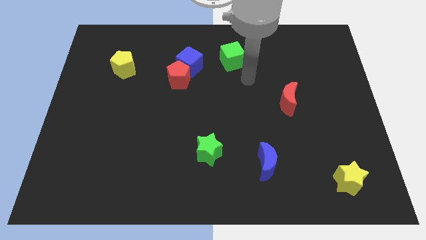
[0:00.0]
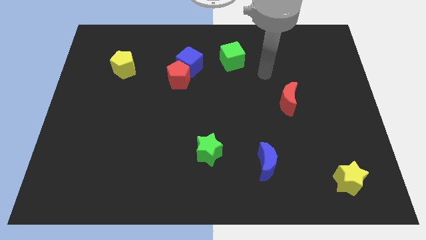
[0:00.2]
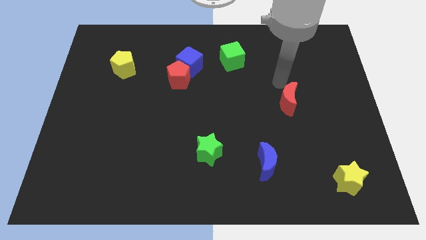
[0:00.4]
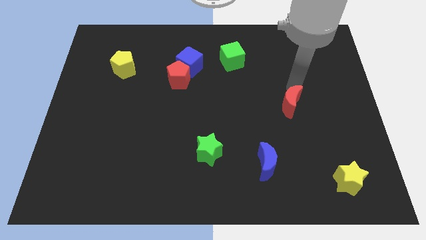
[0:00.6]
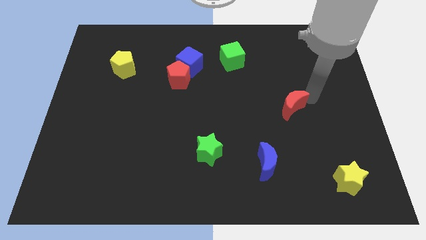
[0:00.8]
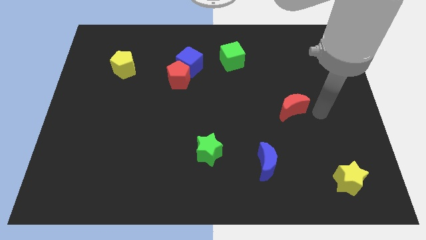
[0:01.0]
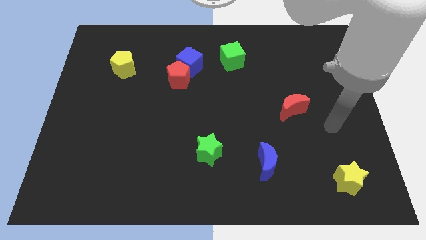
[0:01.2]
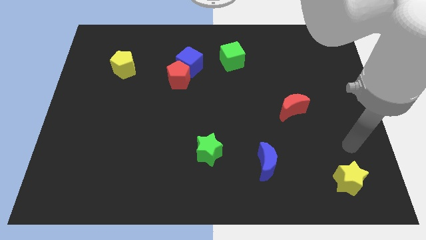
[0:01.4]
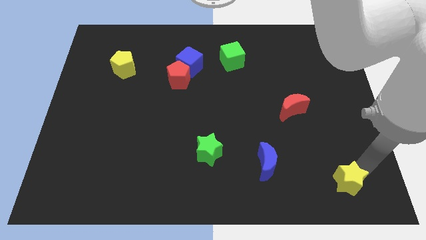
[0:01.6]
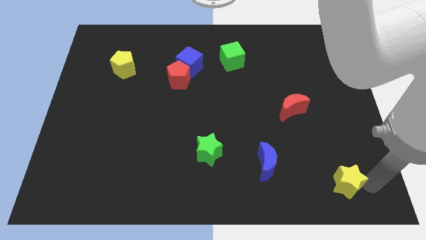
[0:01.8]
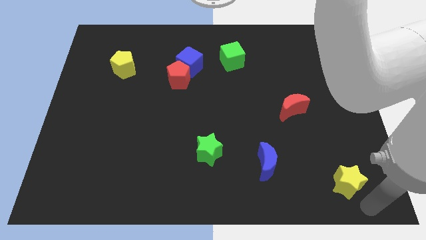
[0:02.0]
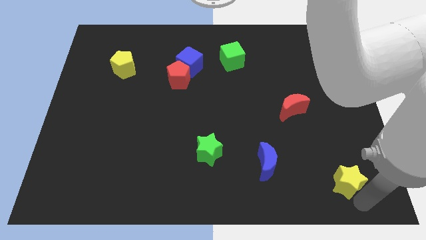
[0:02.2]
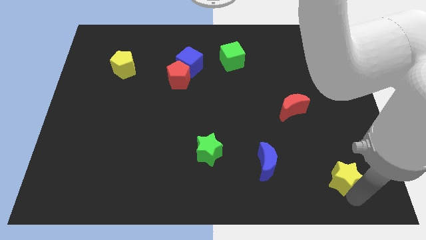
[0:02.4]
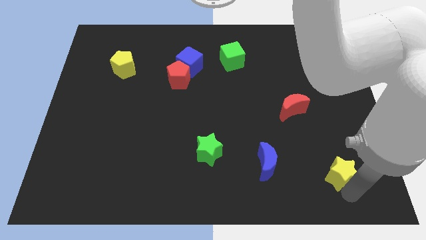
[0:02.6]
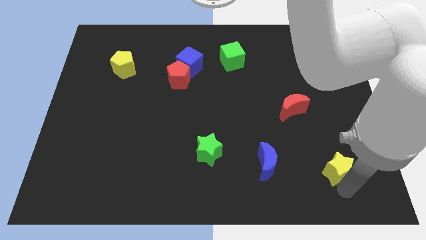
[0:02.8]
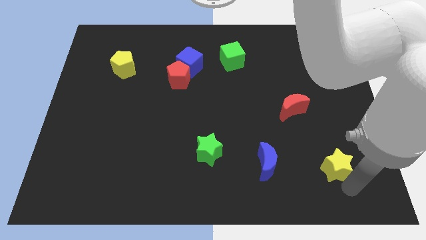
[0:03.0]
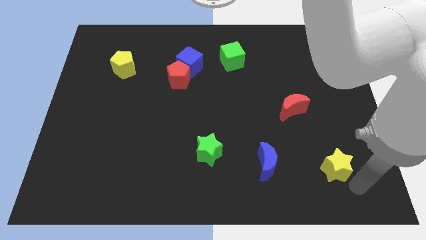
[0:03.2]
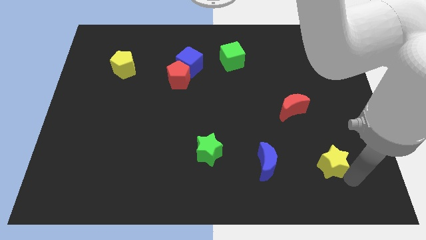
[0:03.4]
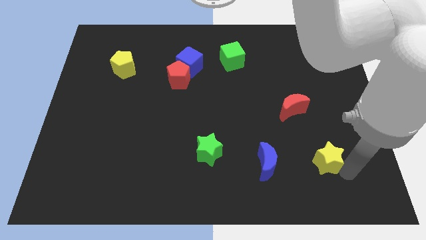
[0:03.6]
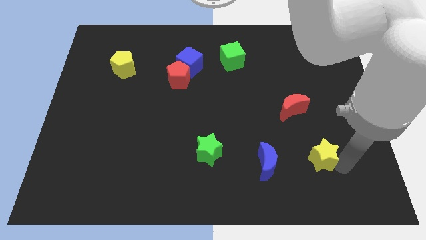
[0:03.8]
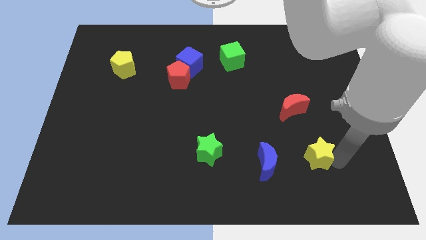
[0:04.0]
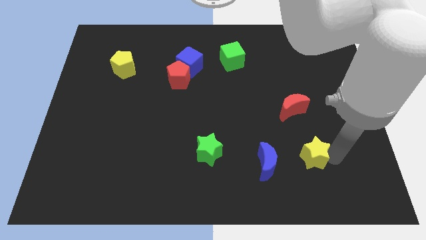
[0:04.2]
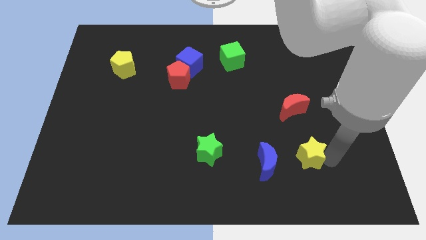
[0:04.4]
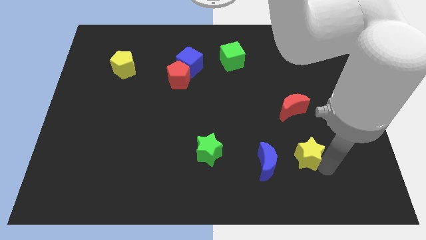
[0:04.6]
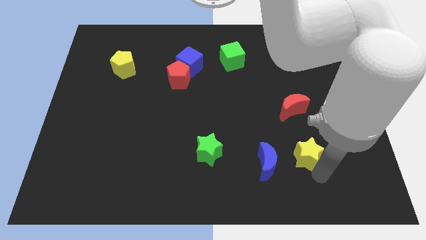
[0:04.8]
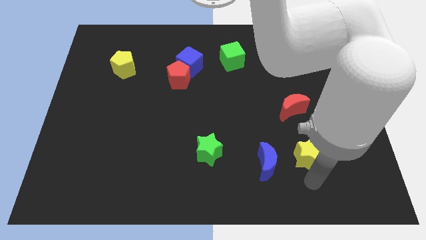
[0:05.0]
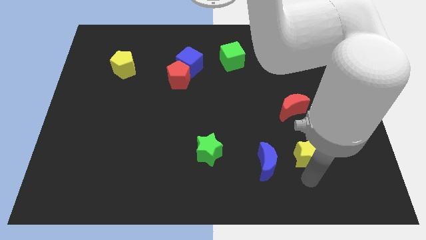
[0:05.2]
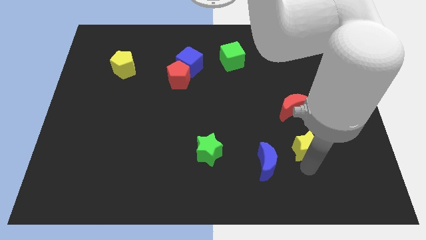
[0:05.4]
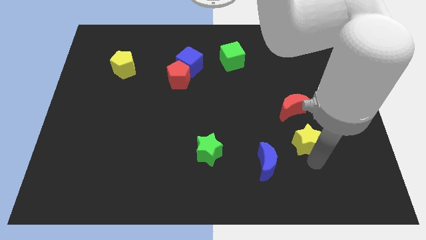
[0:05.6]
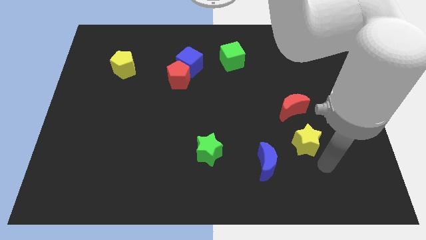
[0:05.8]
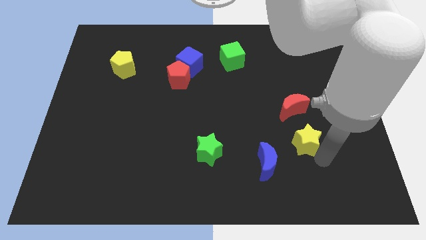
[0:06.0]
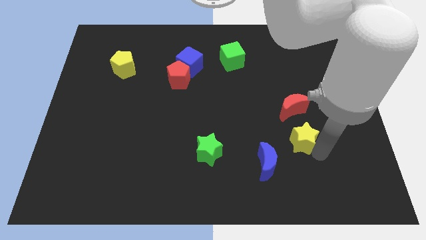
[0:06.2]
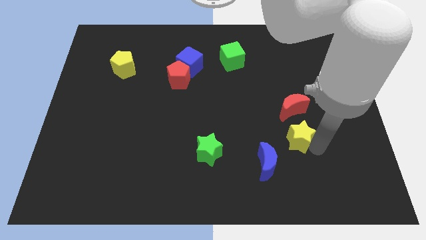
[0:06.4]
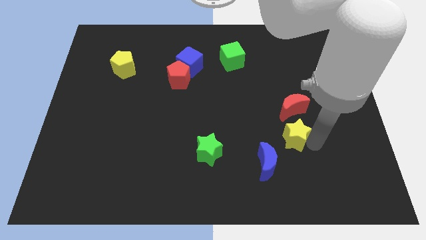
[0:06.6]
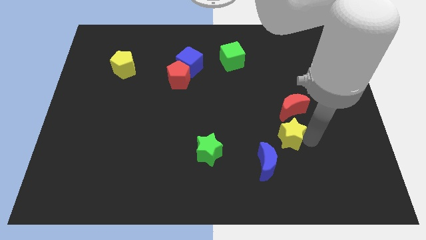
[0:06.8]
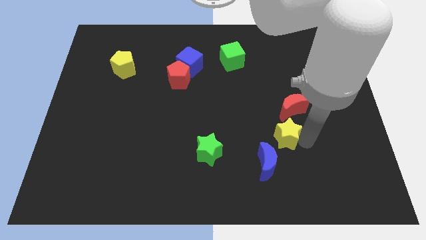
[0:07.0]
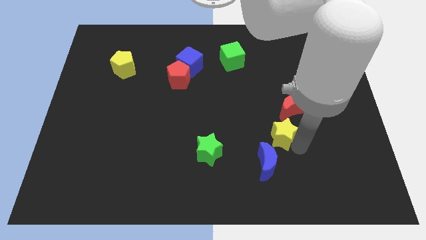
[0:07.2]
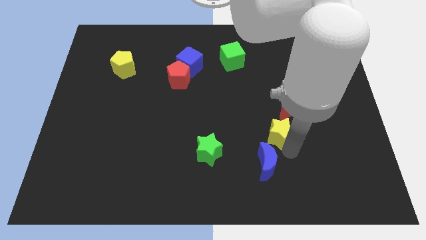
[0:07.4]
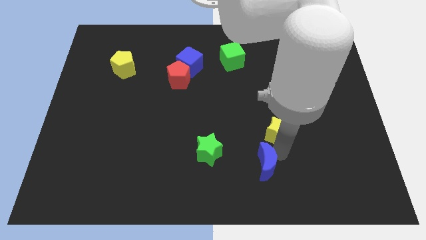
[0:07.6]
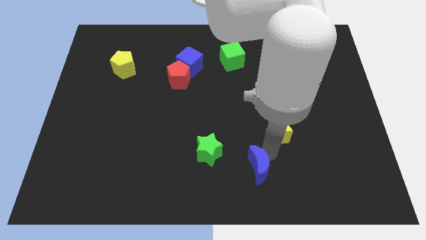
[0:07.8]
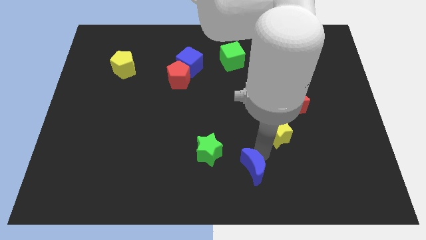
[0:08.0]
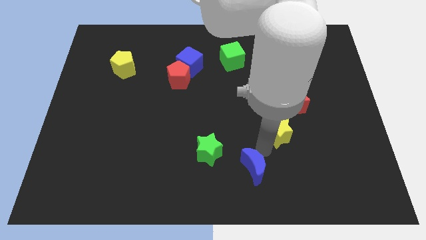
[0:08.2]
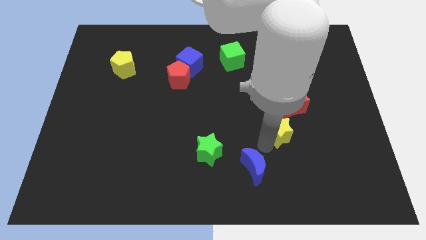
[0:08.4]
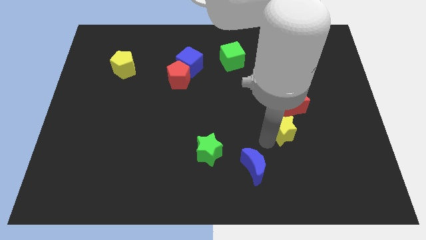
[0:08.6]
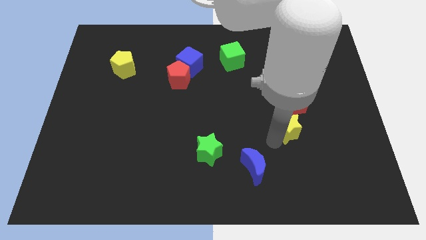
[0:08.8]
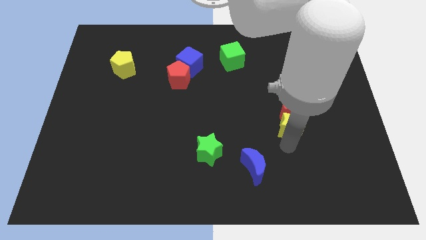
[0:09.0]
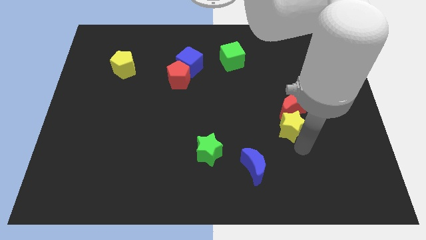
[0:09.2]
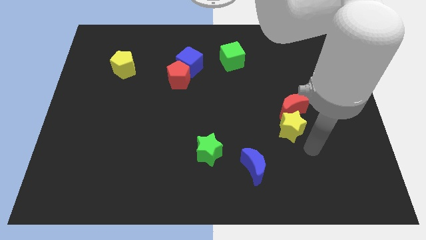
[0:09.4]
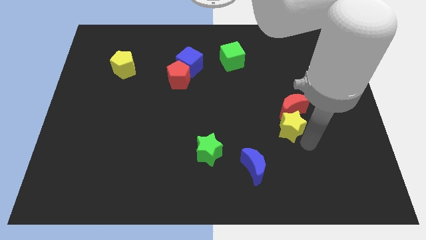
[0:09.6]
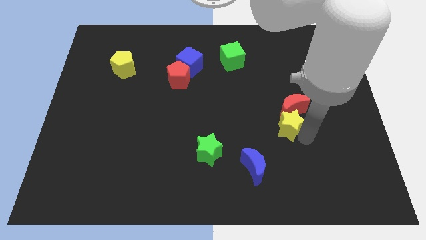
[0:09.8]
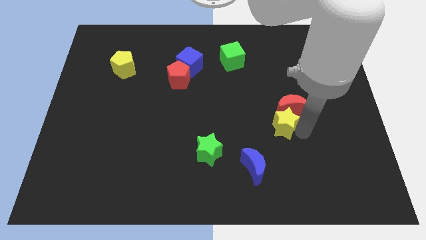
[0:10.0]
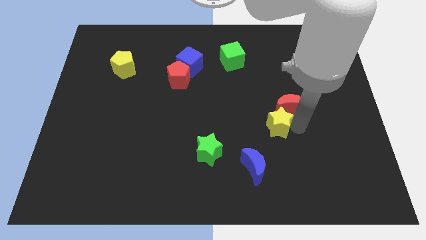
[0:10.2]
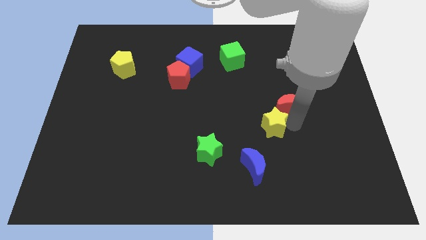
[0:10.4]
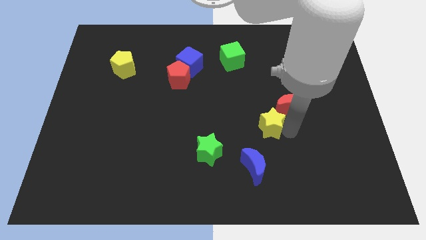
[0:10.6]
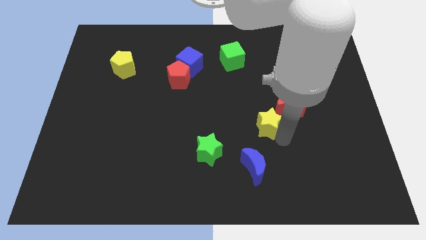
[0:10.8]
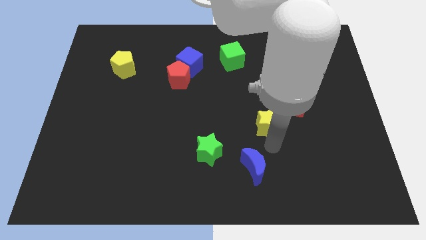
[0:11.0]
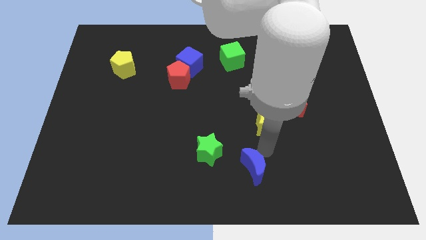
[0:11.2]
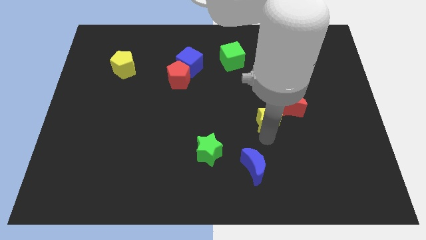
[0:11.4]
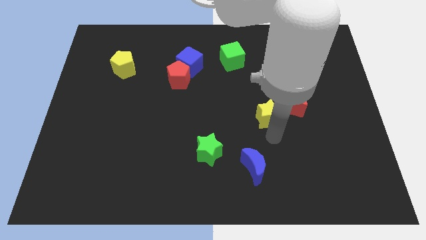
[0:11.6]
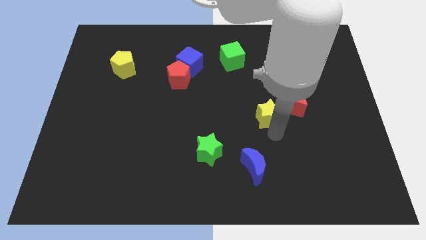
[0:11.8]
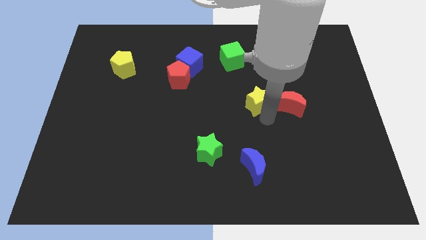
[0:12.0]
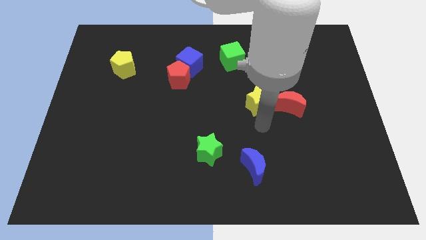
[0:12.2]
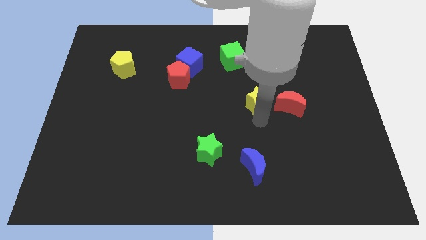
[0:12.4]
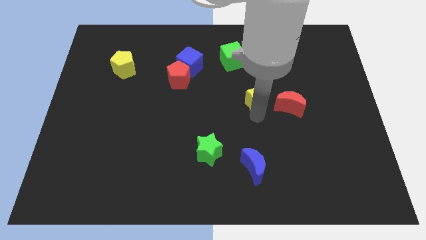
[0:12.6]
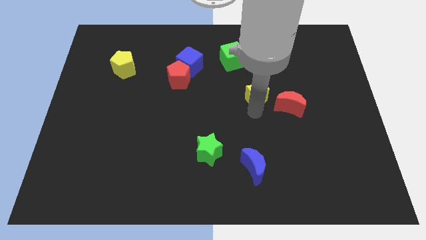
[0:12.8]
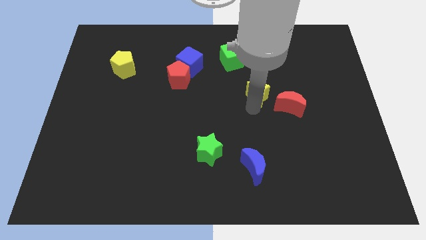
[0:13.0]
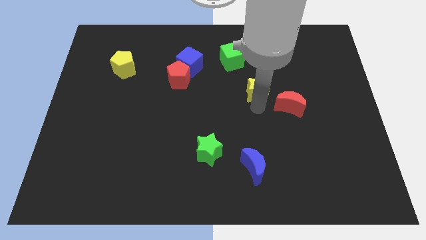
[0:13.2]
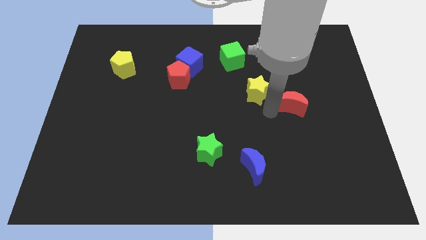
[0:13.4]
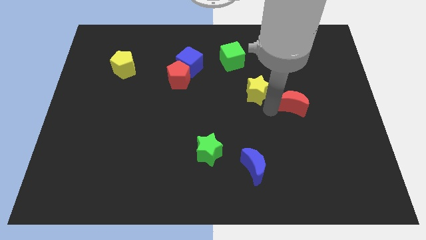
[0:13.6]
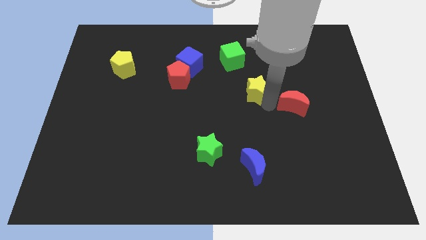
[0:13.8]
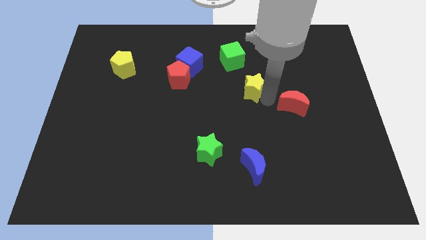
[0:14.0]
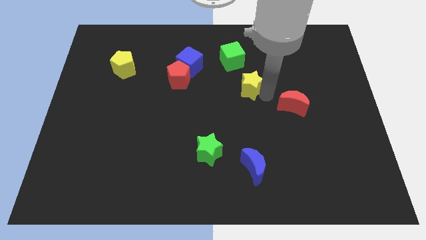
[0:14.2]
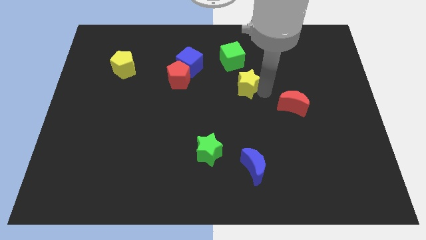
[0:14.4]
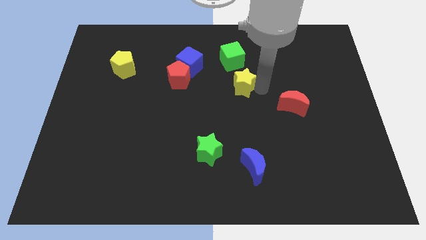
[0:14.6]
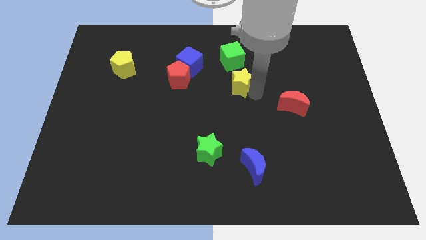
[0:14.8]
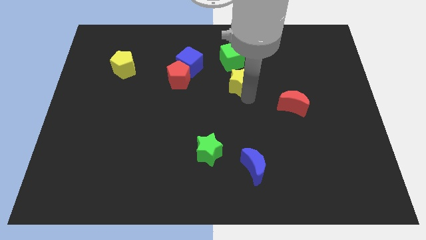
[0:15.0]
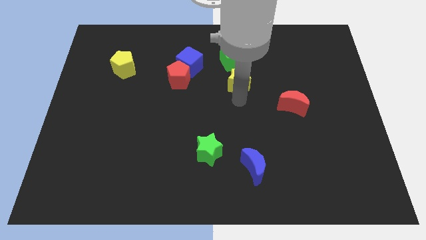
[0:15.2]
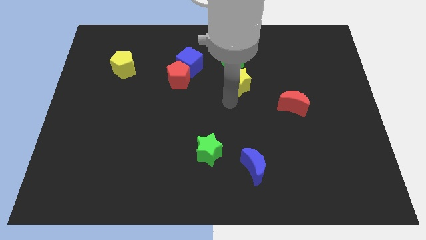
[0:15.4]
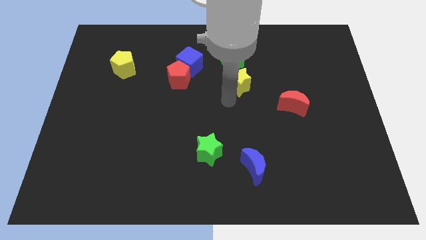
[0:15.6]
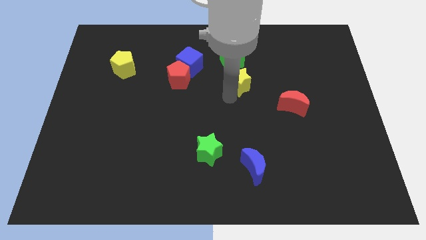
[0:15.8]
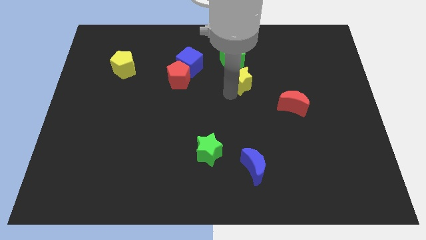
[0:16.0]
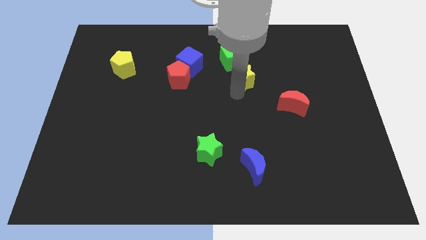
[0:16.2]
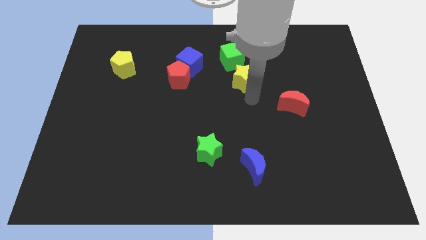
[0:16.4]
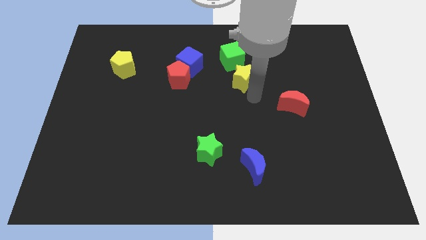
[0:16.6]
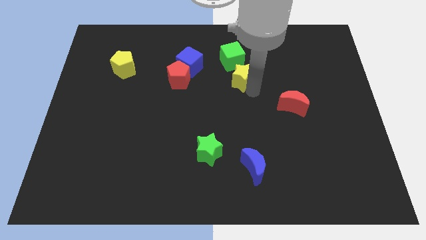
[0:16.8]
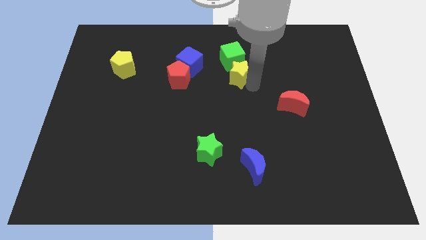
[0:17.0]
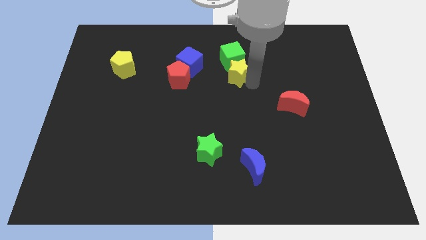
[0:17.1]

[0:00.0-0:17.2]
push the yellow star next to the green cube
